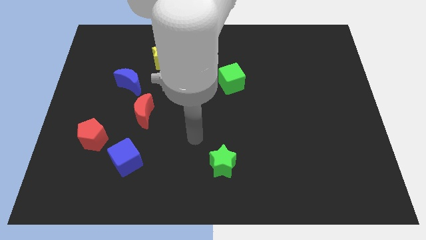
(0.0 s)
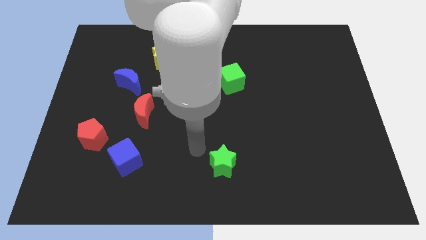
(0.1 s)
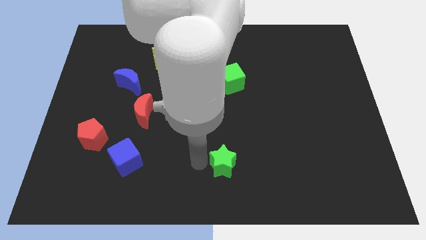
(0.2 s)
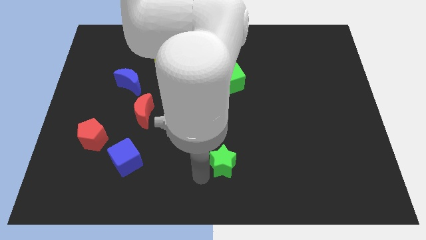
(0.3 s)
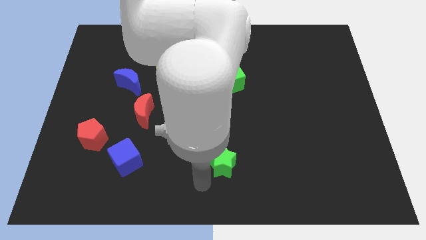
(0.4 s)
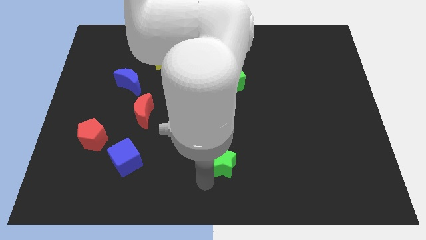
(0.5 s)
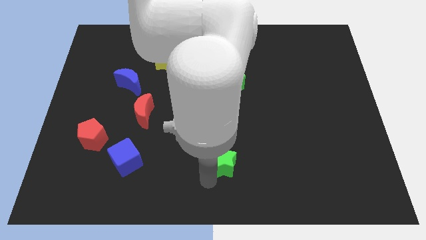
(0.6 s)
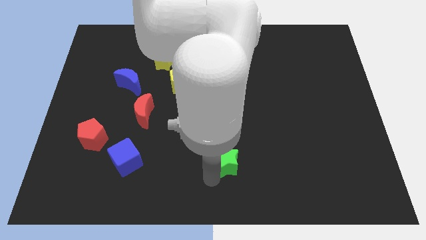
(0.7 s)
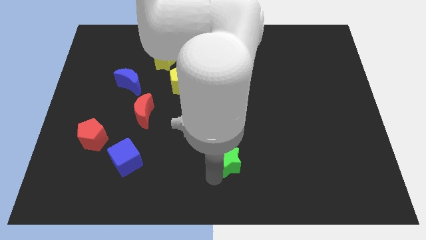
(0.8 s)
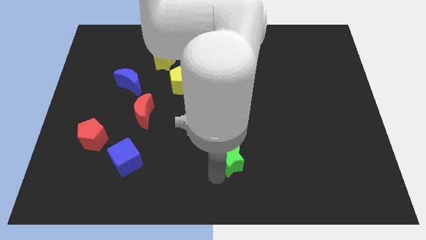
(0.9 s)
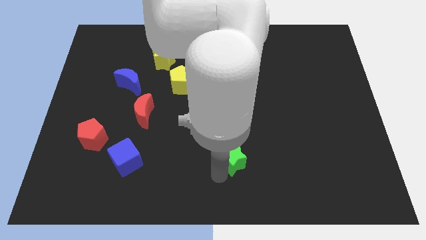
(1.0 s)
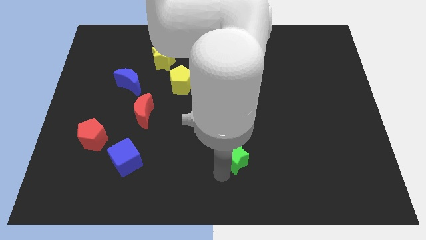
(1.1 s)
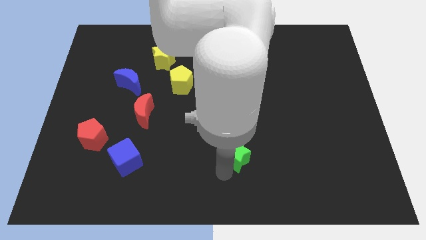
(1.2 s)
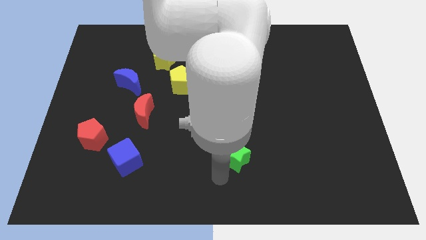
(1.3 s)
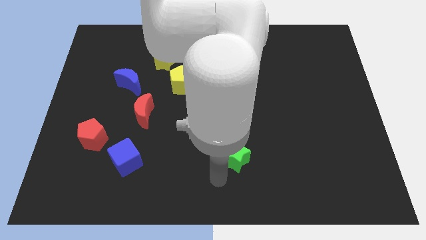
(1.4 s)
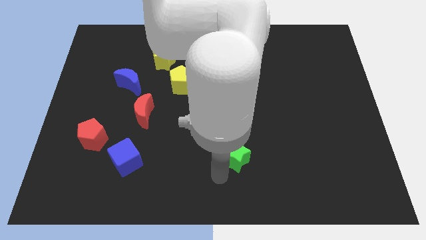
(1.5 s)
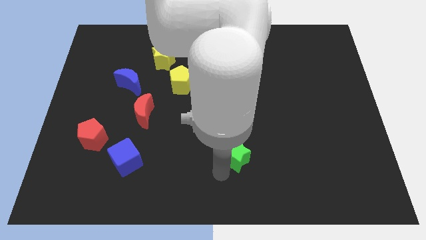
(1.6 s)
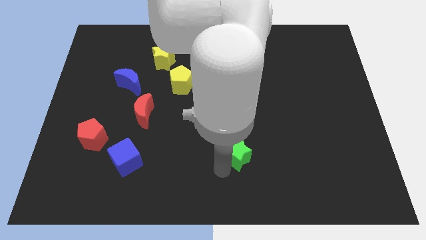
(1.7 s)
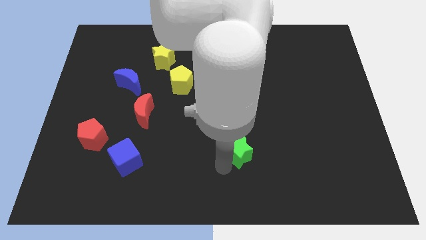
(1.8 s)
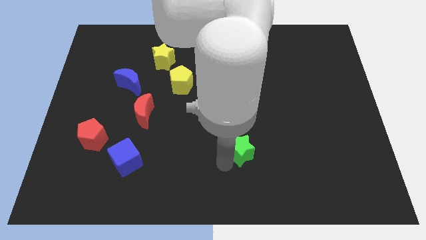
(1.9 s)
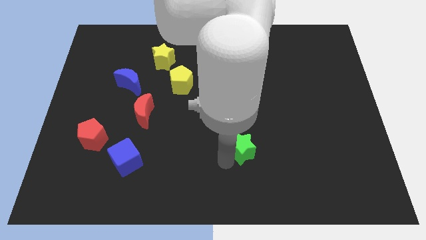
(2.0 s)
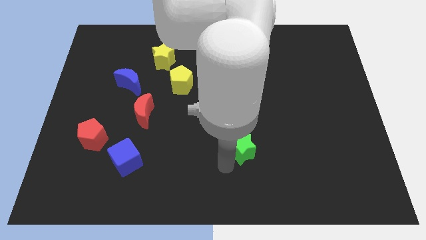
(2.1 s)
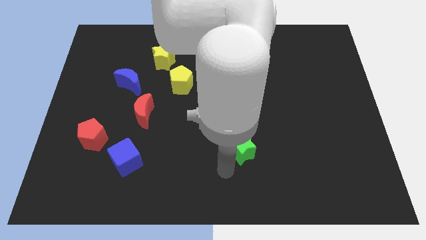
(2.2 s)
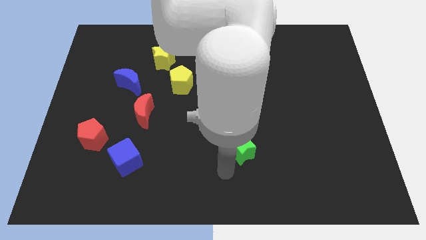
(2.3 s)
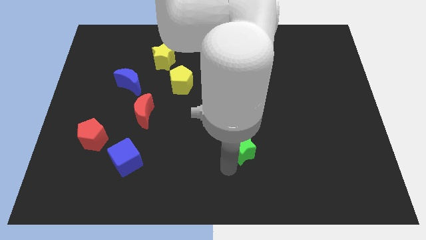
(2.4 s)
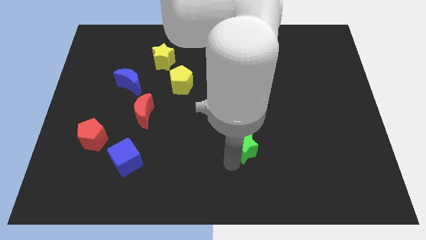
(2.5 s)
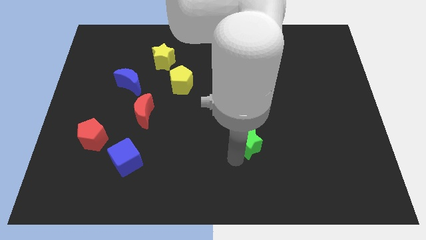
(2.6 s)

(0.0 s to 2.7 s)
slide the green star up and then right somewhat

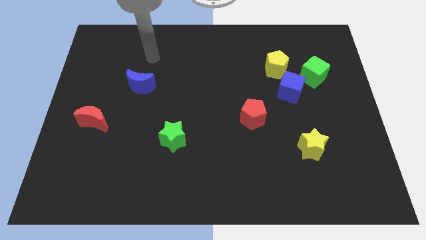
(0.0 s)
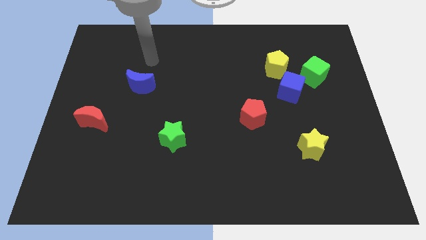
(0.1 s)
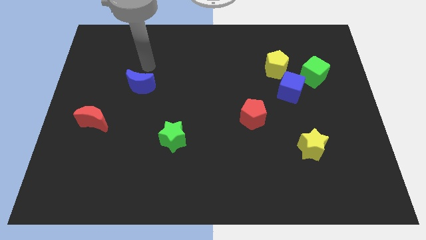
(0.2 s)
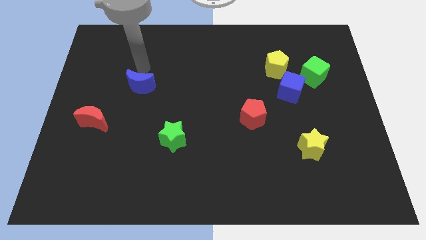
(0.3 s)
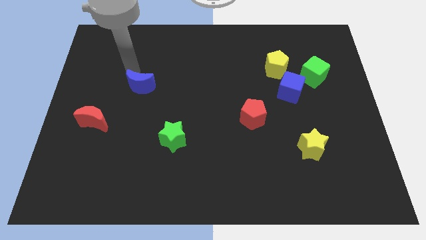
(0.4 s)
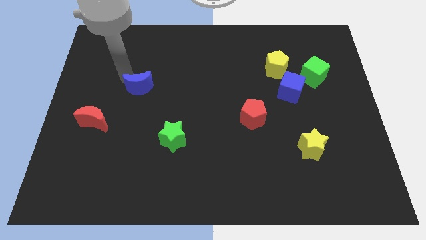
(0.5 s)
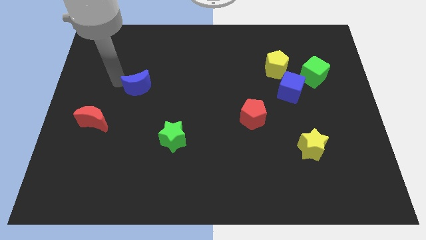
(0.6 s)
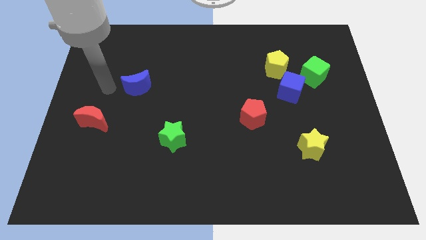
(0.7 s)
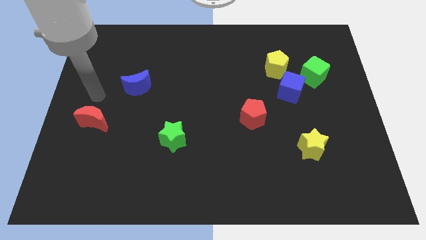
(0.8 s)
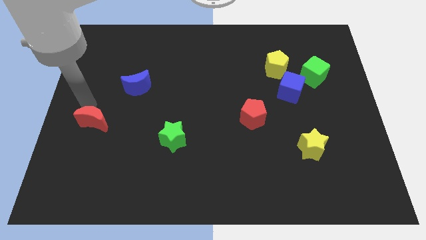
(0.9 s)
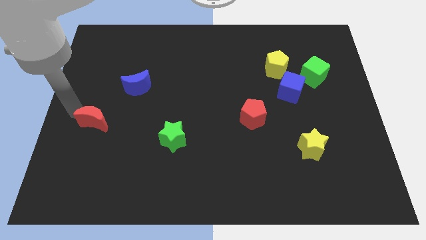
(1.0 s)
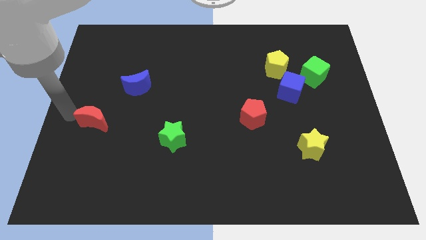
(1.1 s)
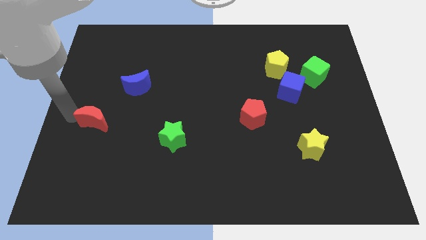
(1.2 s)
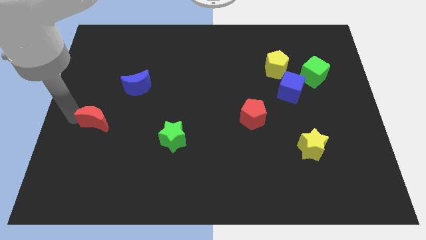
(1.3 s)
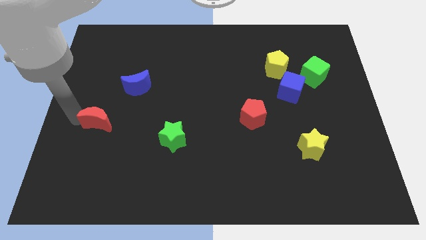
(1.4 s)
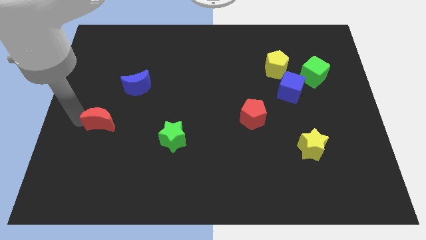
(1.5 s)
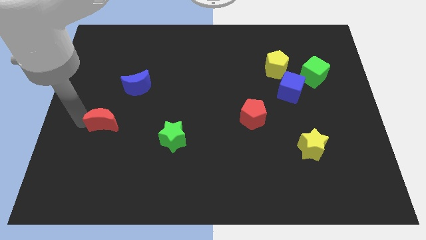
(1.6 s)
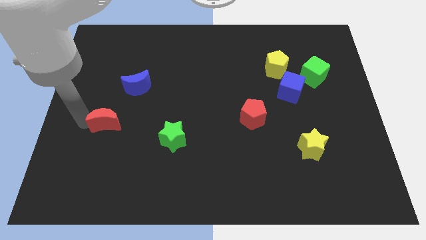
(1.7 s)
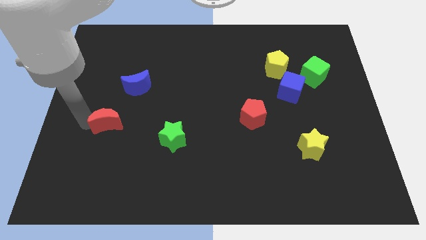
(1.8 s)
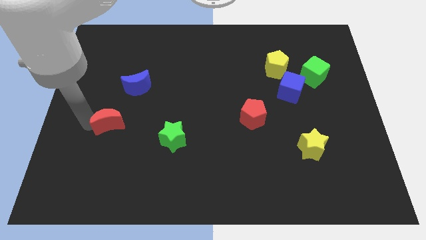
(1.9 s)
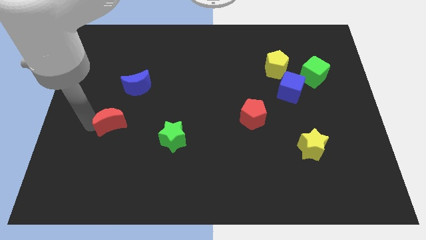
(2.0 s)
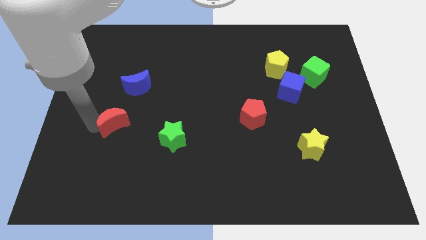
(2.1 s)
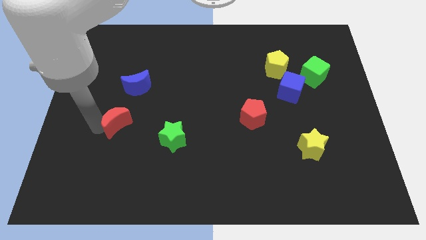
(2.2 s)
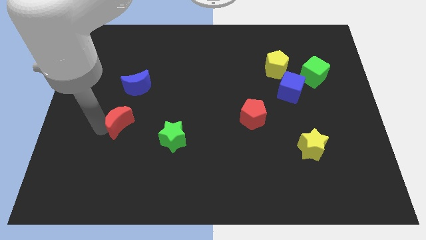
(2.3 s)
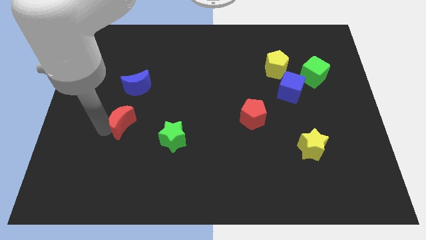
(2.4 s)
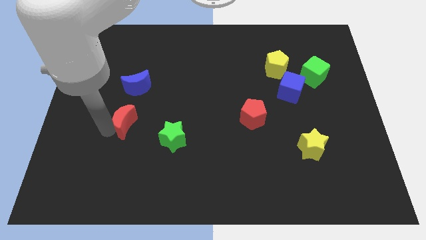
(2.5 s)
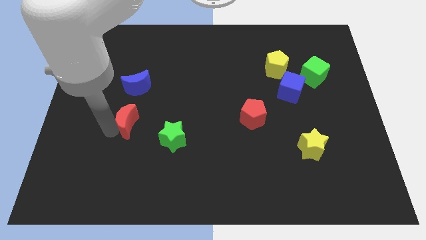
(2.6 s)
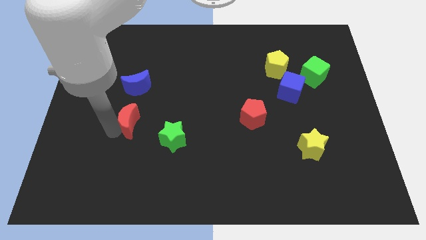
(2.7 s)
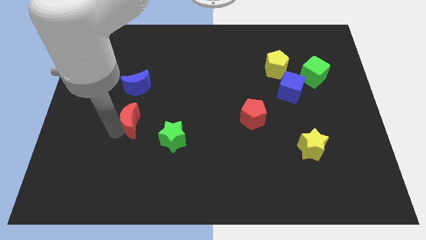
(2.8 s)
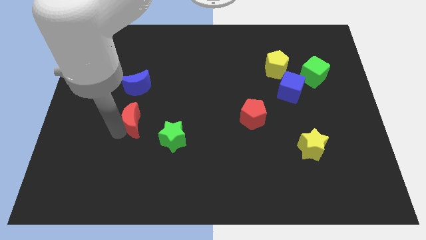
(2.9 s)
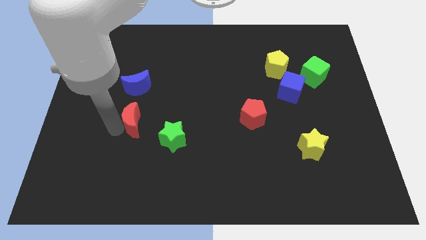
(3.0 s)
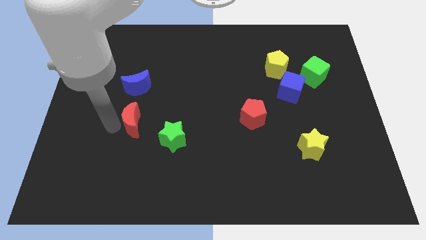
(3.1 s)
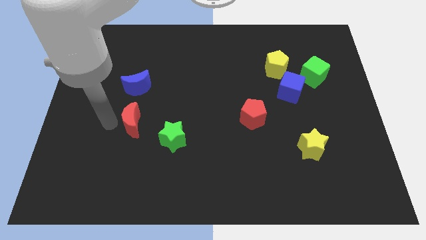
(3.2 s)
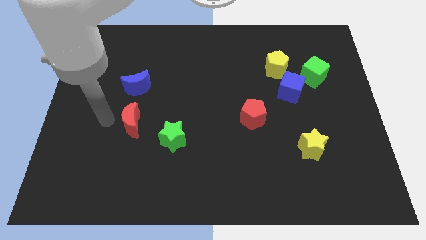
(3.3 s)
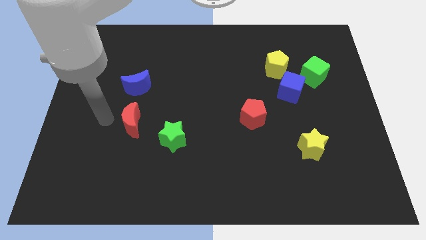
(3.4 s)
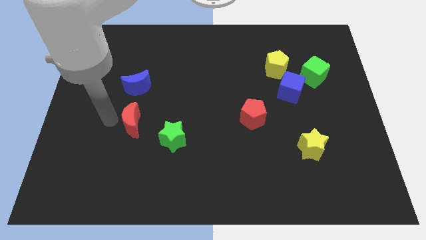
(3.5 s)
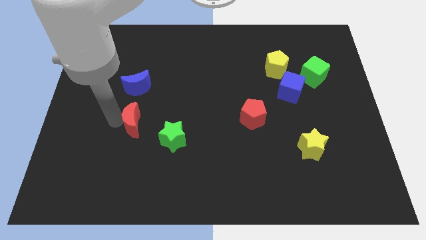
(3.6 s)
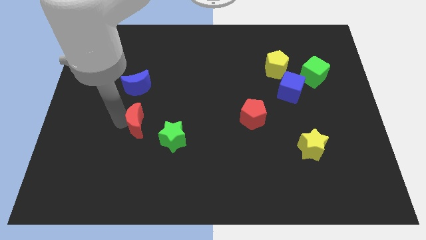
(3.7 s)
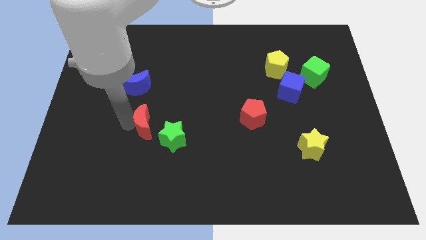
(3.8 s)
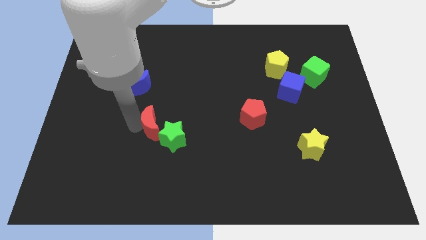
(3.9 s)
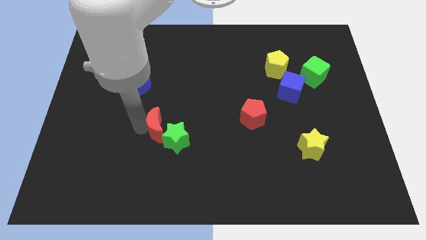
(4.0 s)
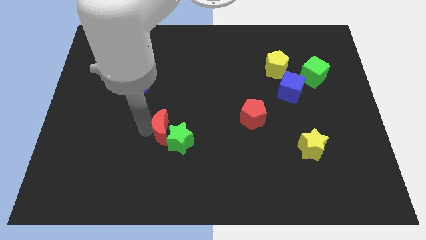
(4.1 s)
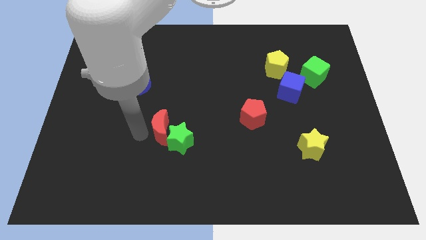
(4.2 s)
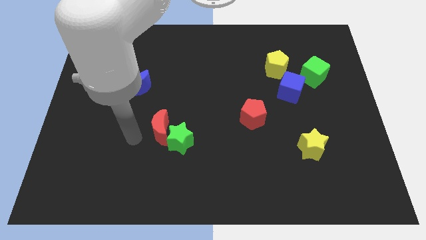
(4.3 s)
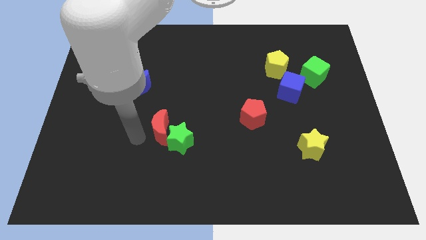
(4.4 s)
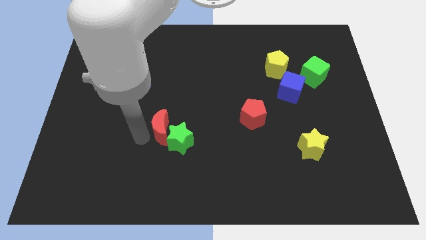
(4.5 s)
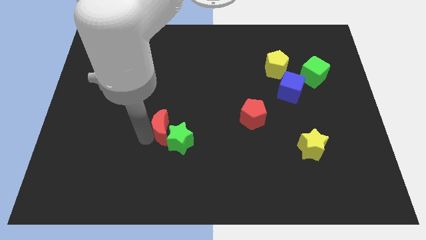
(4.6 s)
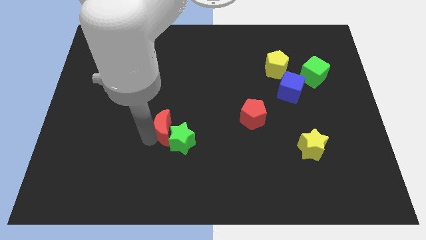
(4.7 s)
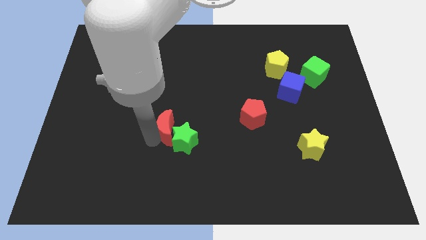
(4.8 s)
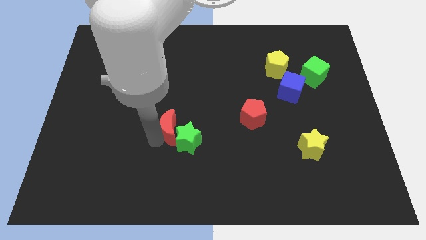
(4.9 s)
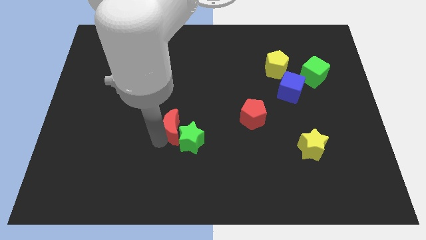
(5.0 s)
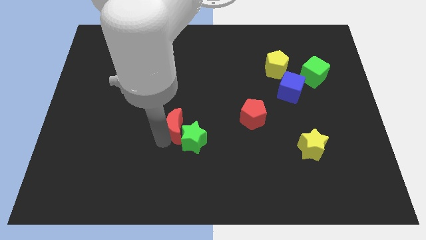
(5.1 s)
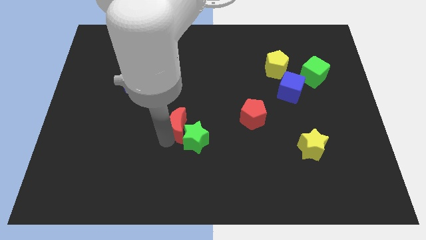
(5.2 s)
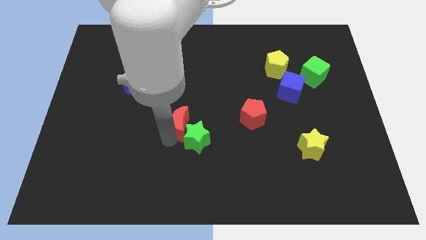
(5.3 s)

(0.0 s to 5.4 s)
slide the red moon right
